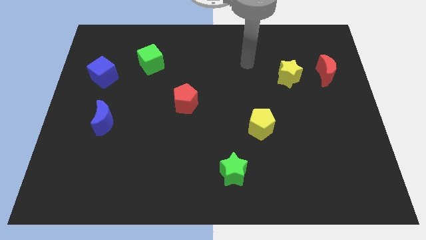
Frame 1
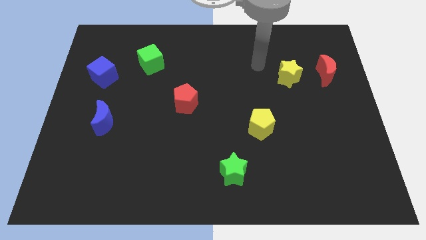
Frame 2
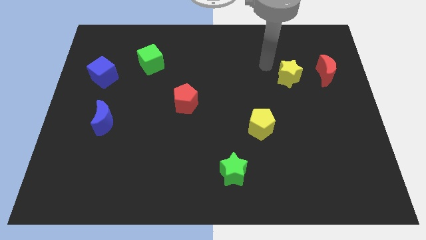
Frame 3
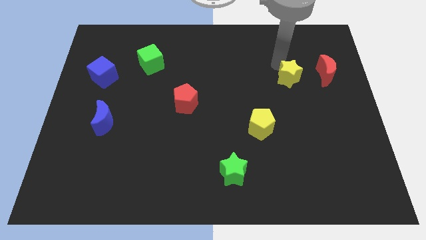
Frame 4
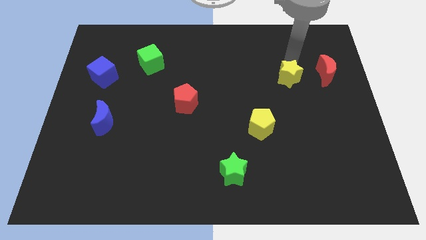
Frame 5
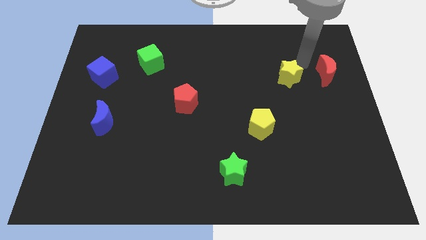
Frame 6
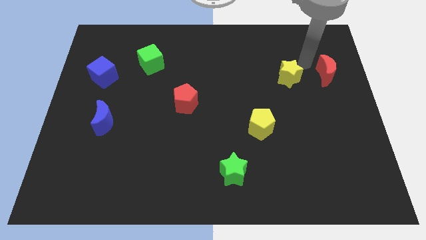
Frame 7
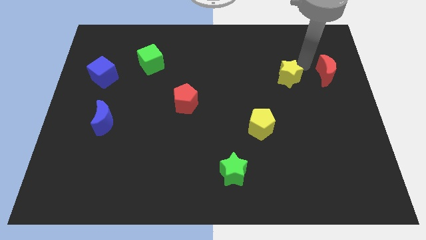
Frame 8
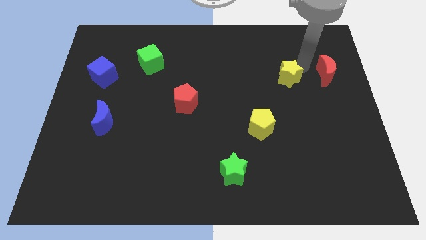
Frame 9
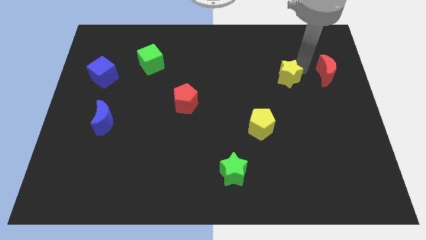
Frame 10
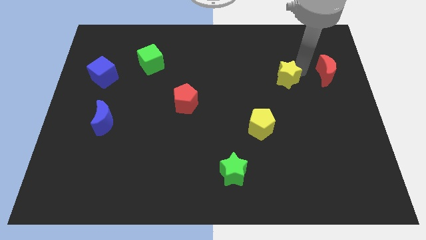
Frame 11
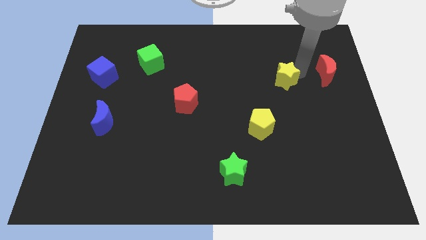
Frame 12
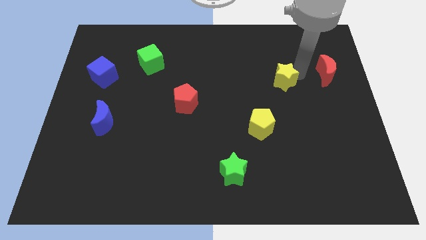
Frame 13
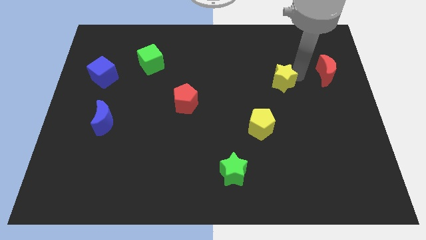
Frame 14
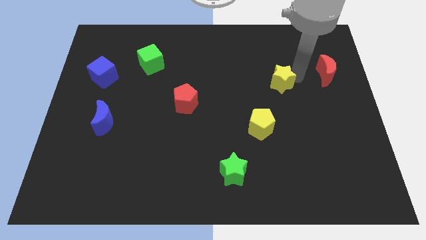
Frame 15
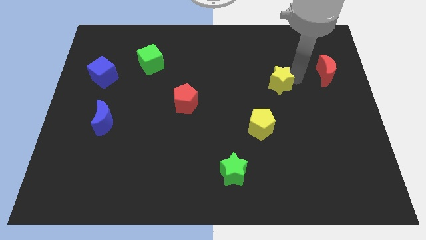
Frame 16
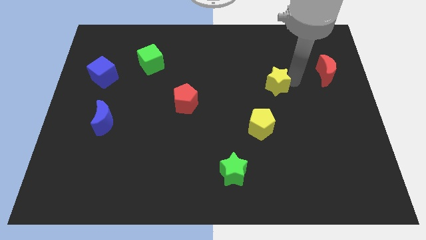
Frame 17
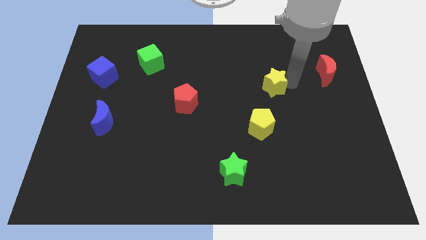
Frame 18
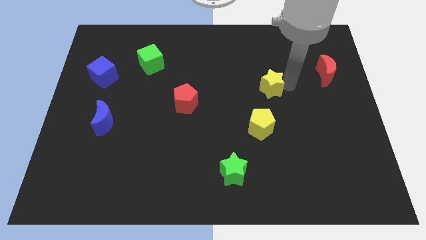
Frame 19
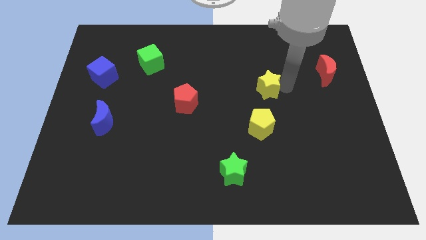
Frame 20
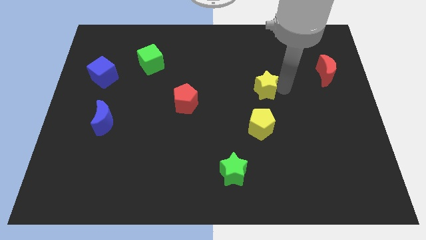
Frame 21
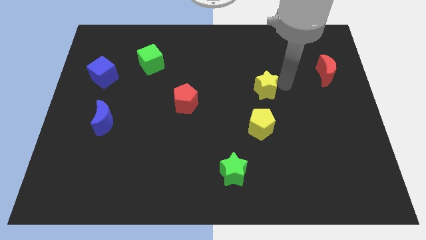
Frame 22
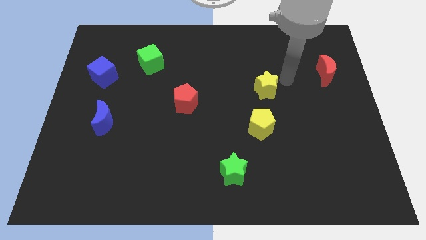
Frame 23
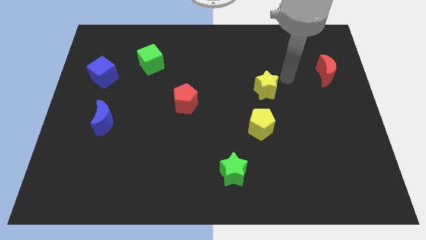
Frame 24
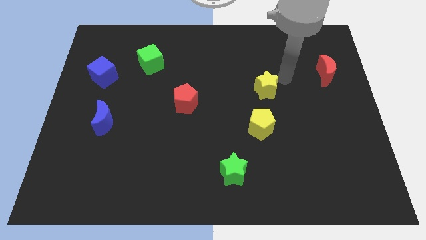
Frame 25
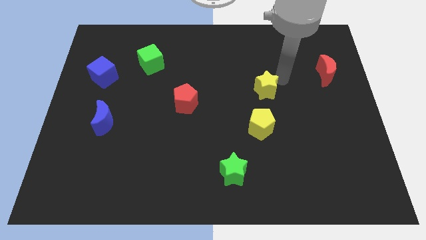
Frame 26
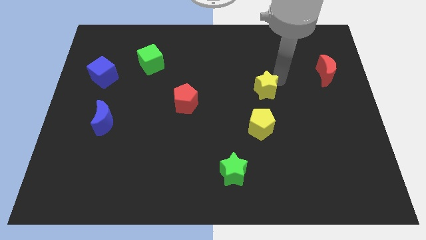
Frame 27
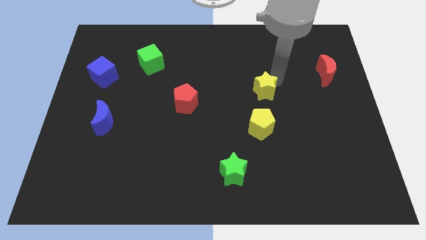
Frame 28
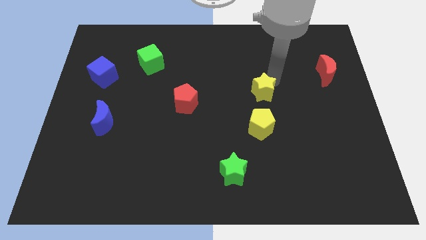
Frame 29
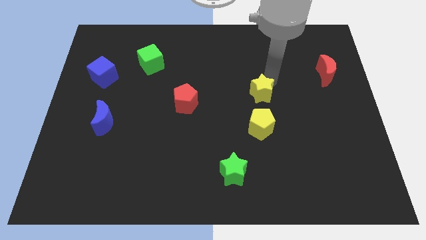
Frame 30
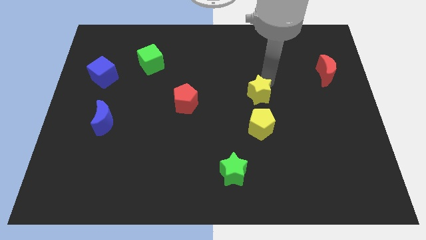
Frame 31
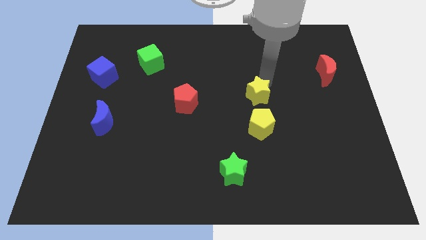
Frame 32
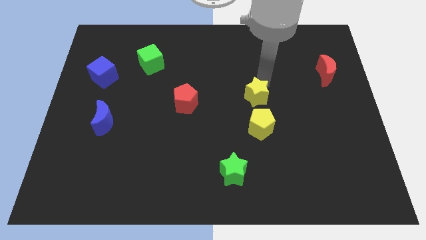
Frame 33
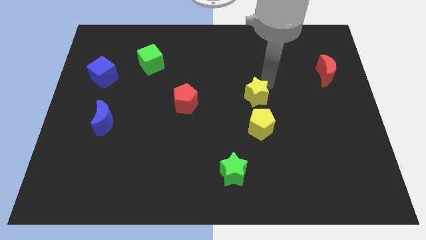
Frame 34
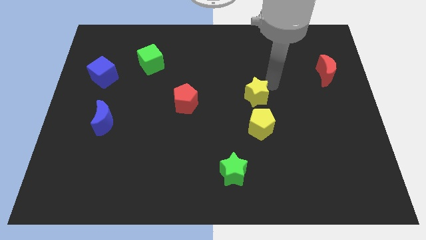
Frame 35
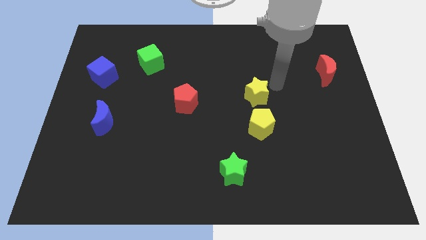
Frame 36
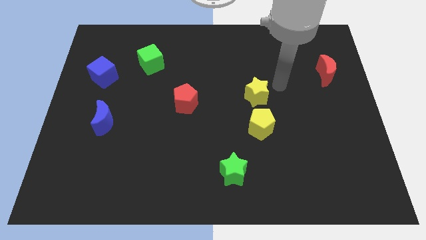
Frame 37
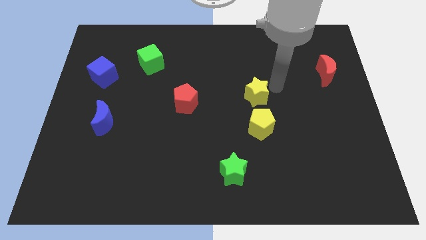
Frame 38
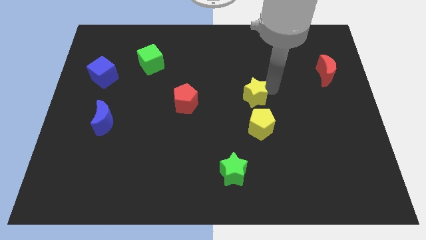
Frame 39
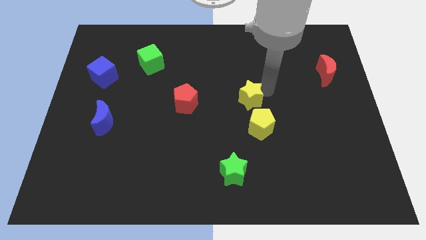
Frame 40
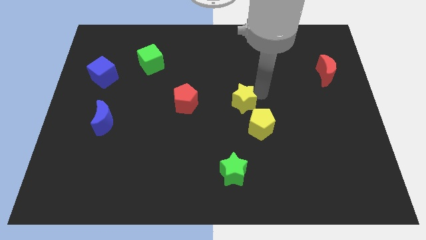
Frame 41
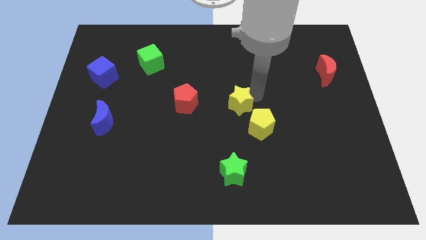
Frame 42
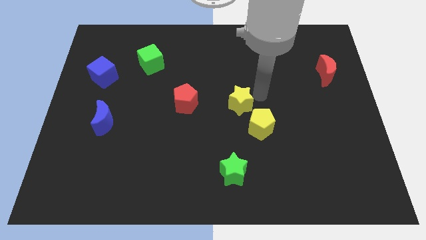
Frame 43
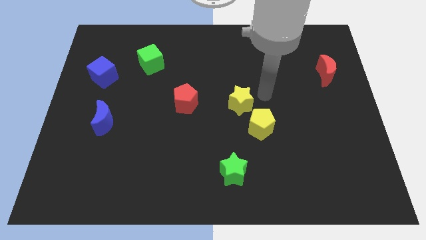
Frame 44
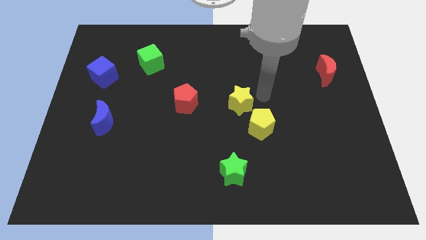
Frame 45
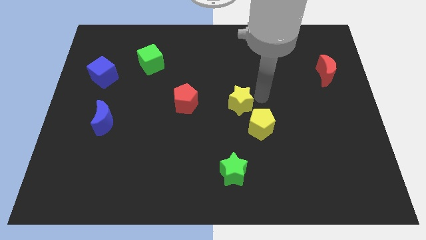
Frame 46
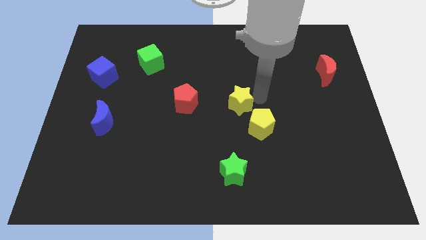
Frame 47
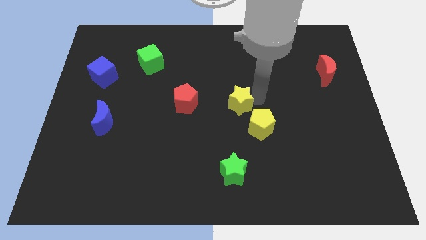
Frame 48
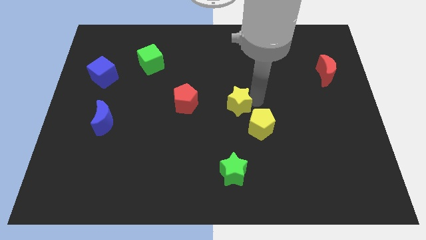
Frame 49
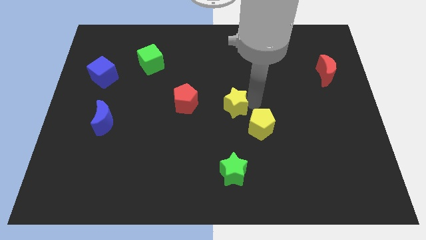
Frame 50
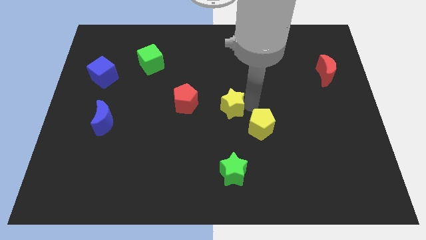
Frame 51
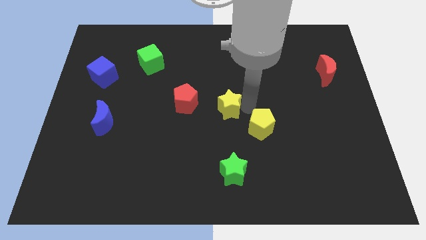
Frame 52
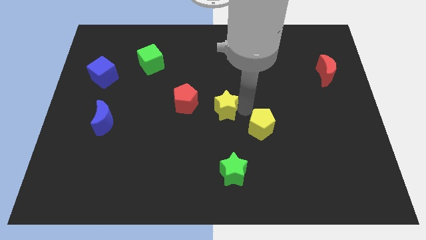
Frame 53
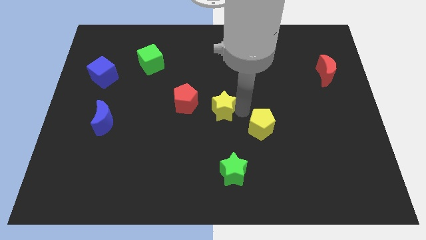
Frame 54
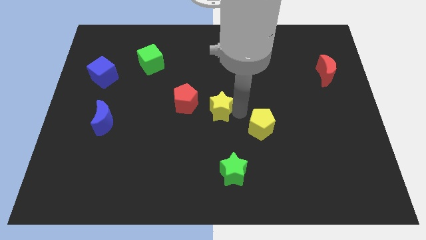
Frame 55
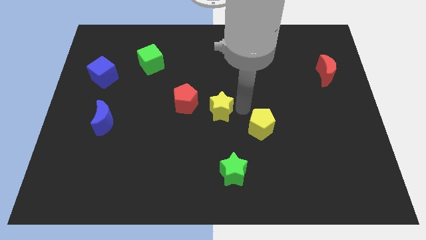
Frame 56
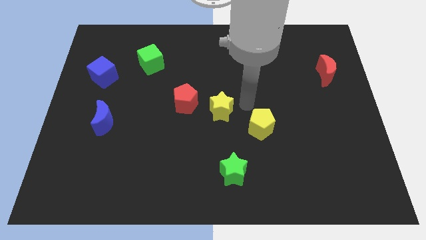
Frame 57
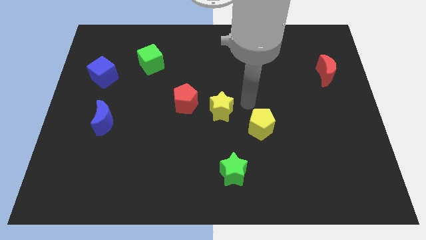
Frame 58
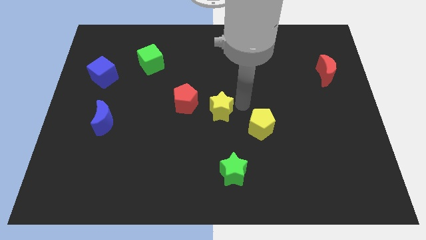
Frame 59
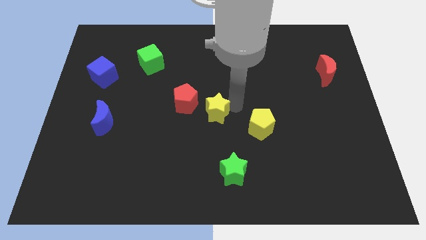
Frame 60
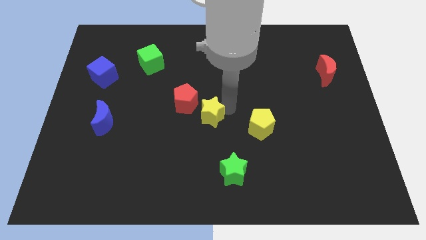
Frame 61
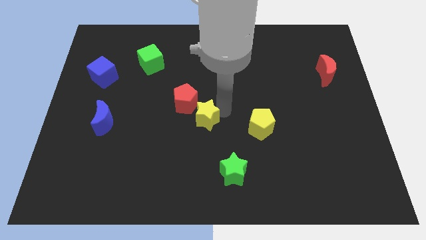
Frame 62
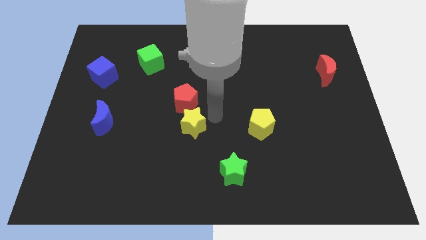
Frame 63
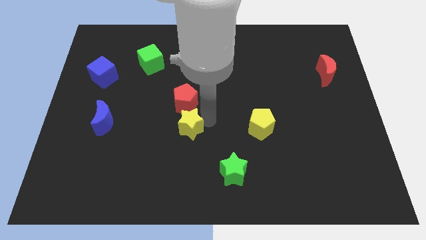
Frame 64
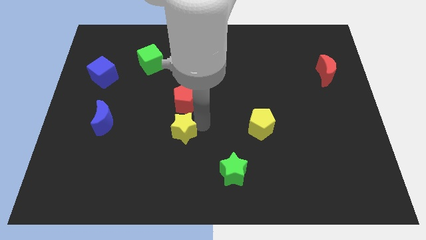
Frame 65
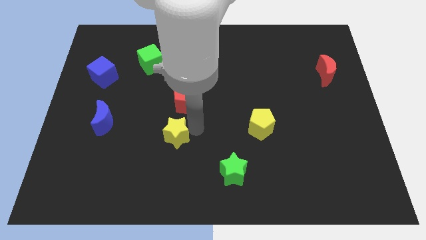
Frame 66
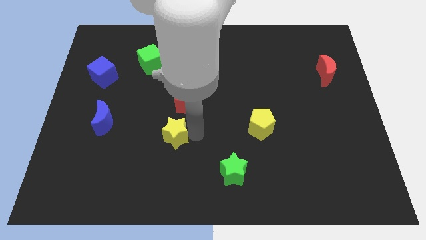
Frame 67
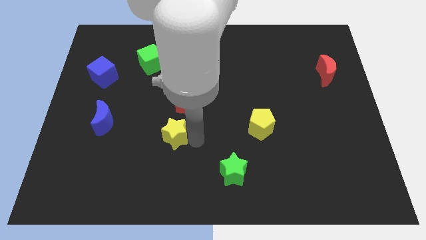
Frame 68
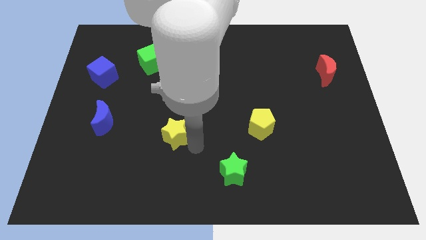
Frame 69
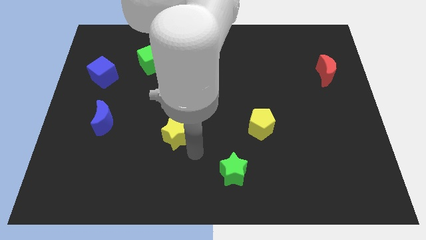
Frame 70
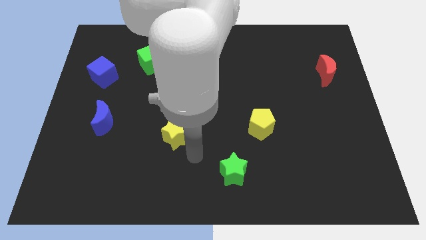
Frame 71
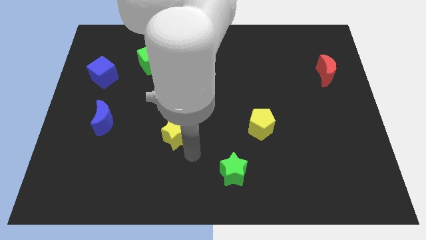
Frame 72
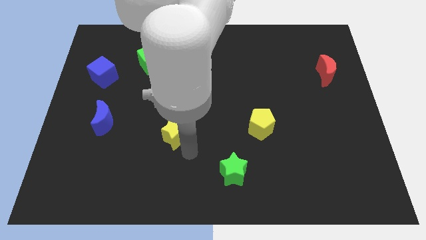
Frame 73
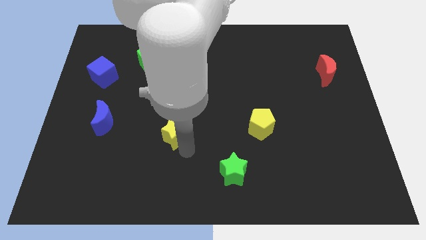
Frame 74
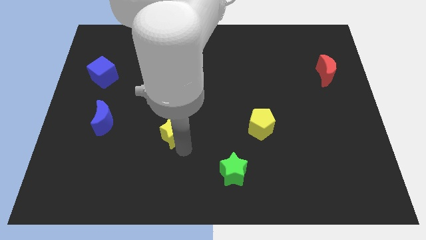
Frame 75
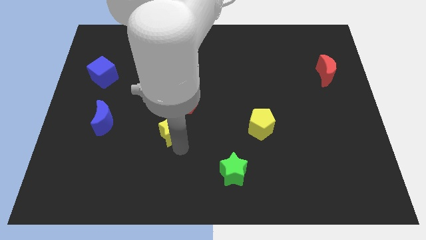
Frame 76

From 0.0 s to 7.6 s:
move the yellow star diagonally down and to the left of the red pentagon
